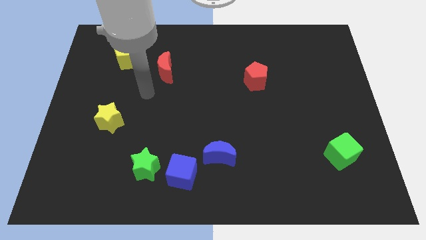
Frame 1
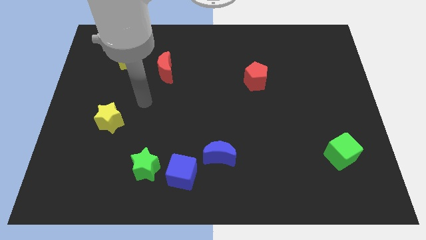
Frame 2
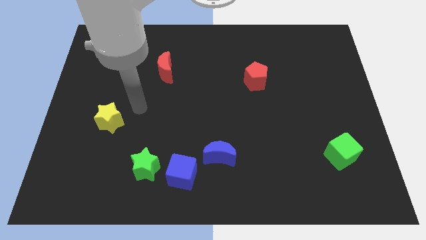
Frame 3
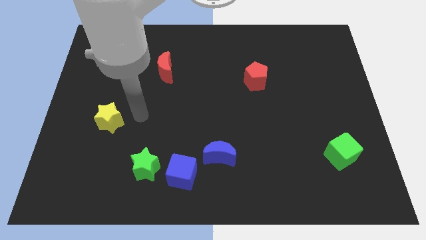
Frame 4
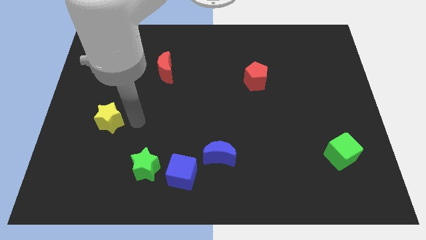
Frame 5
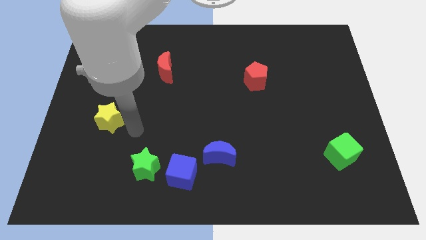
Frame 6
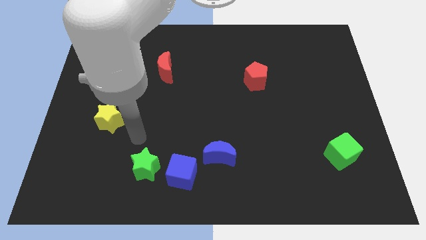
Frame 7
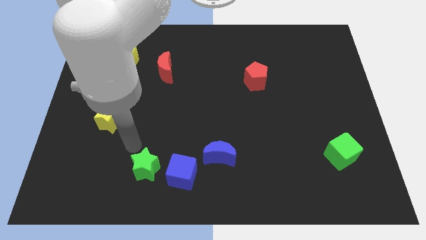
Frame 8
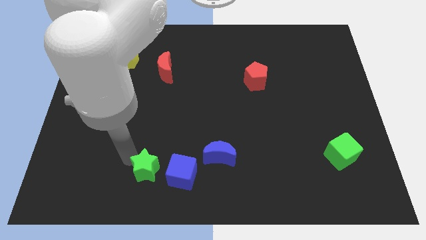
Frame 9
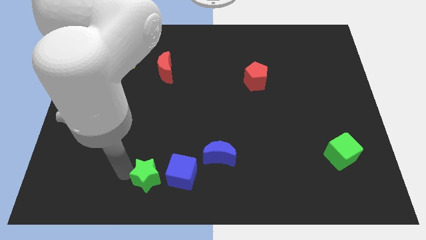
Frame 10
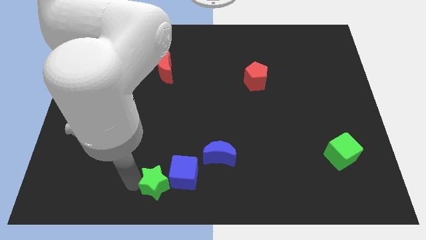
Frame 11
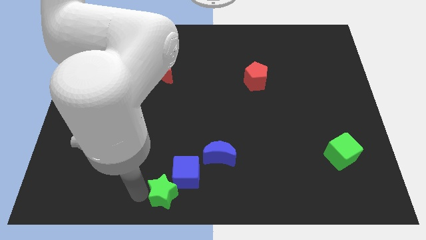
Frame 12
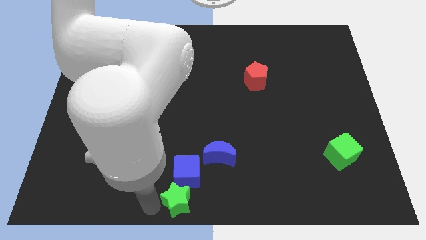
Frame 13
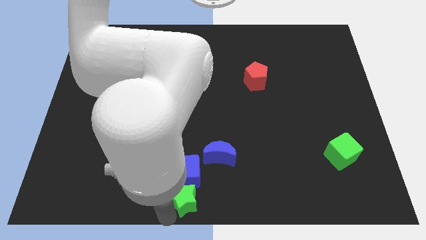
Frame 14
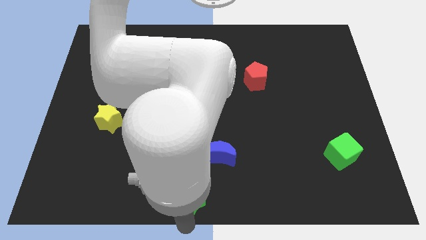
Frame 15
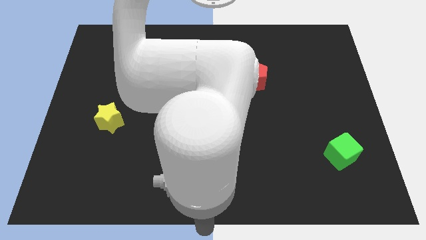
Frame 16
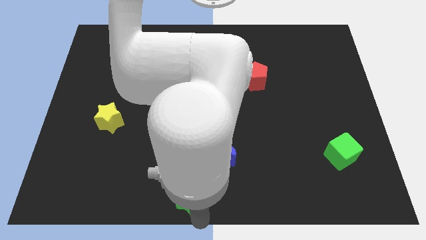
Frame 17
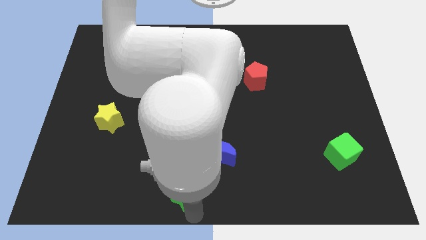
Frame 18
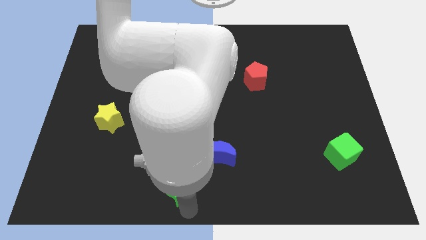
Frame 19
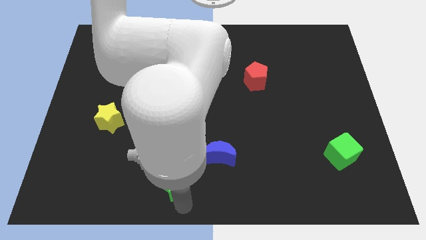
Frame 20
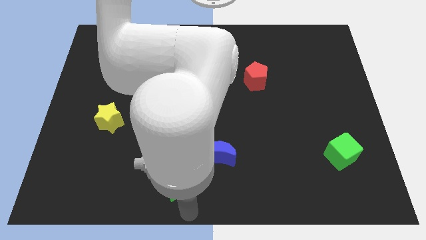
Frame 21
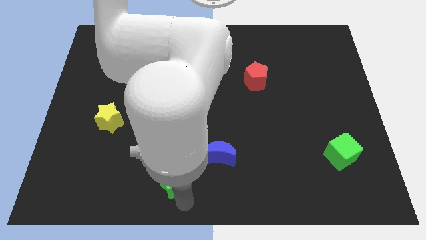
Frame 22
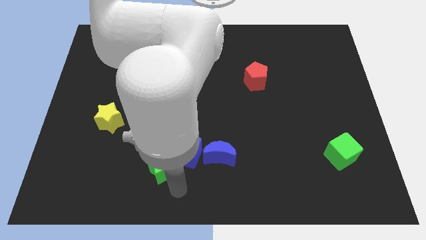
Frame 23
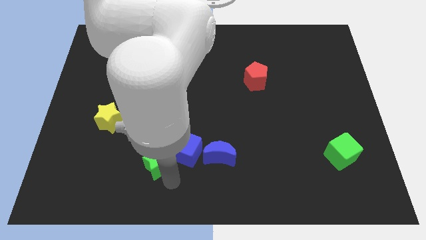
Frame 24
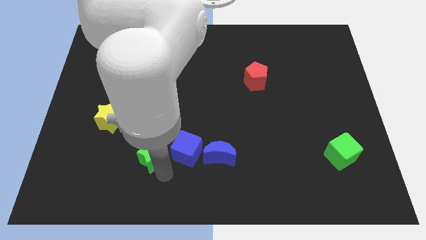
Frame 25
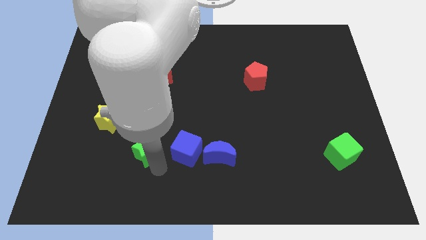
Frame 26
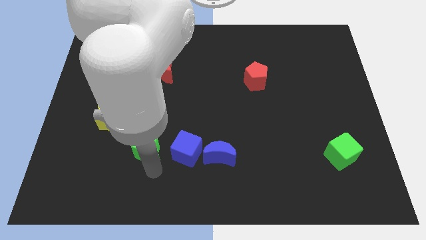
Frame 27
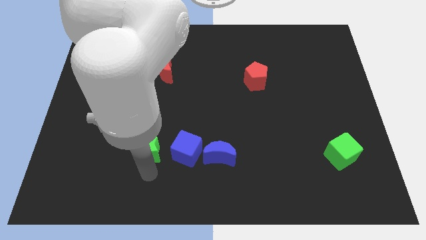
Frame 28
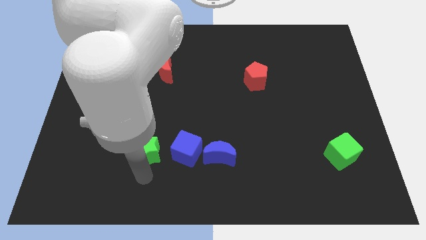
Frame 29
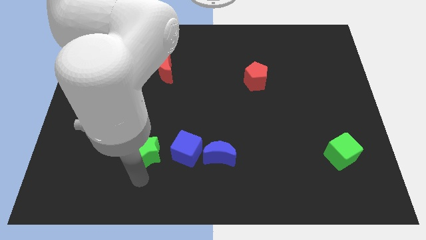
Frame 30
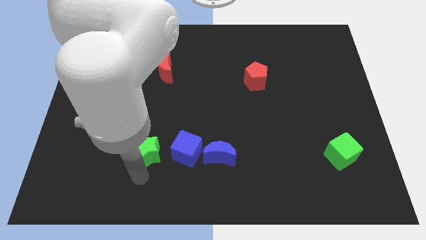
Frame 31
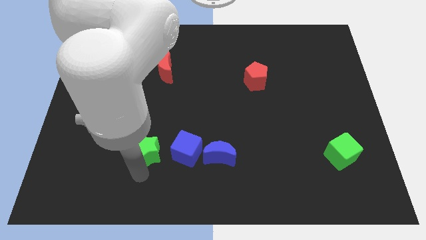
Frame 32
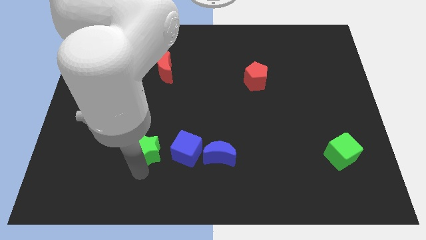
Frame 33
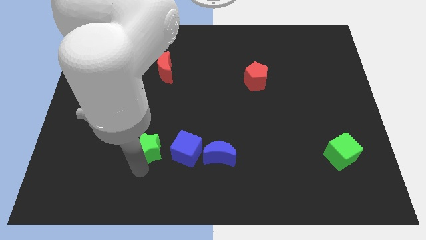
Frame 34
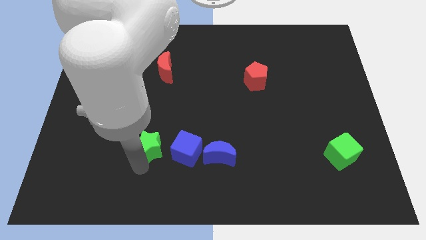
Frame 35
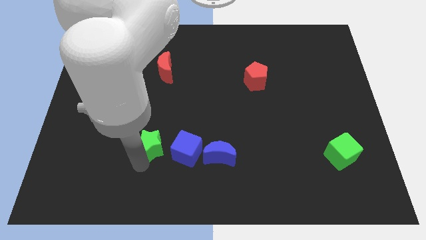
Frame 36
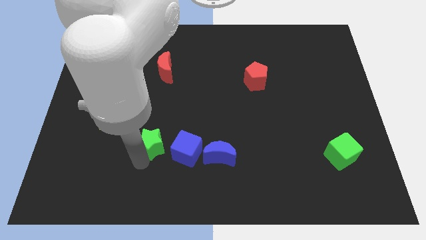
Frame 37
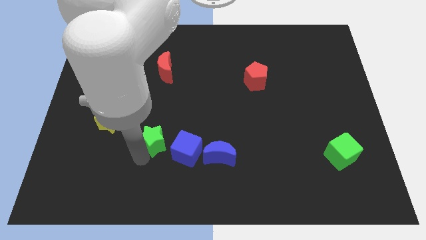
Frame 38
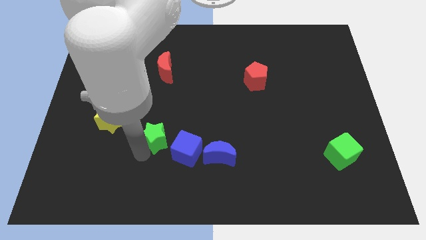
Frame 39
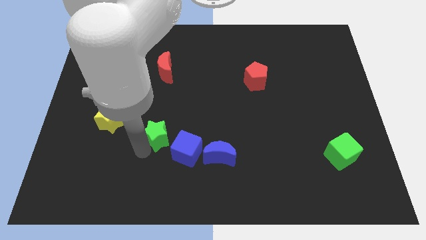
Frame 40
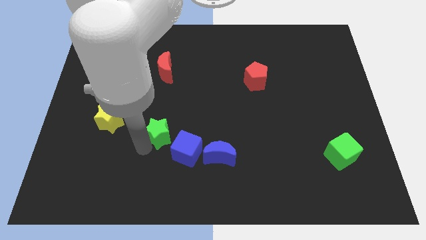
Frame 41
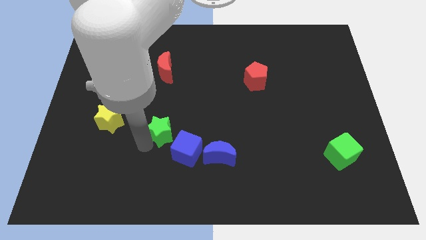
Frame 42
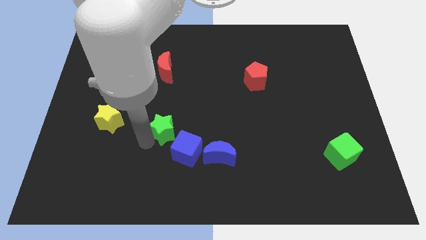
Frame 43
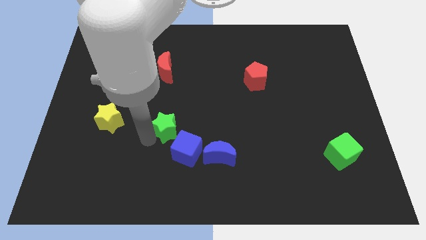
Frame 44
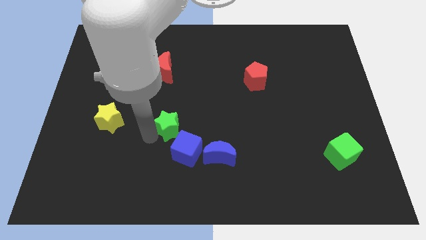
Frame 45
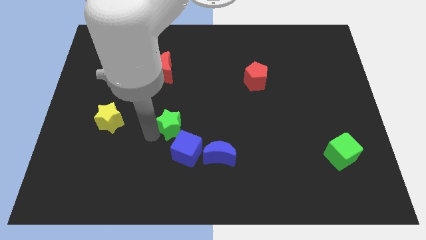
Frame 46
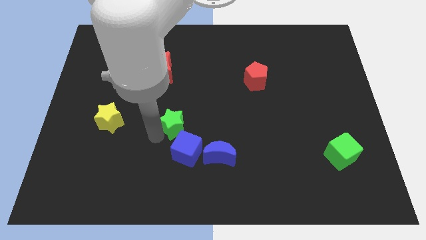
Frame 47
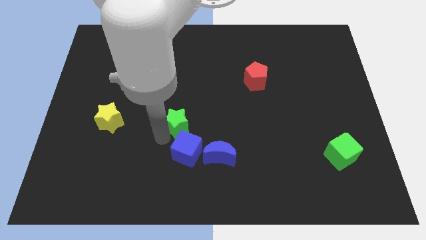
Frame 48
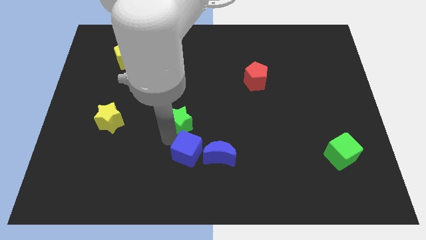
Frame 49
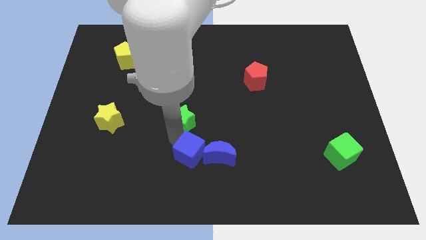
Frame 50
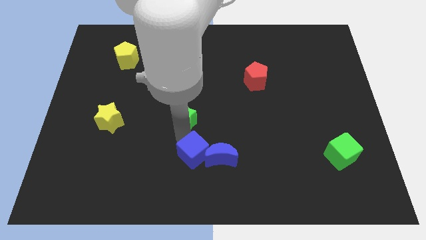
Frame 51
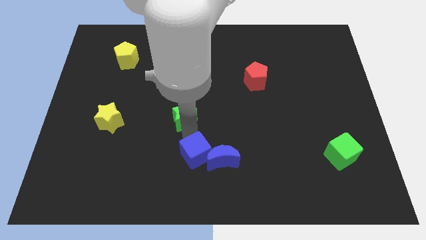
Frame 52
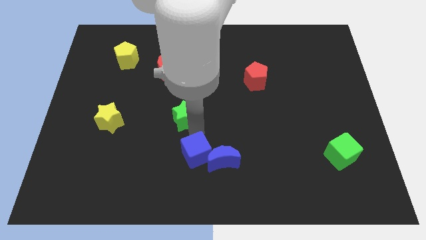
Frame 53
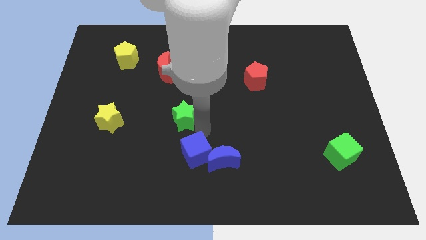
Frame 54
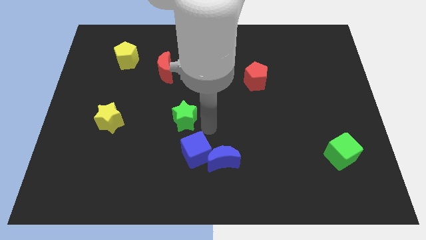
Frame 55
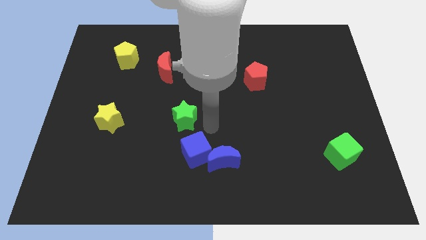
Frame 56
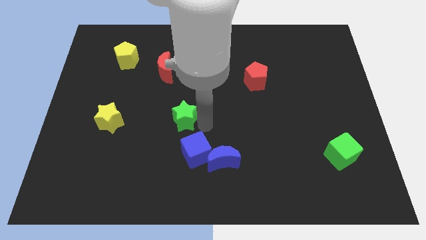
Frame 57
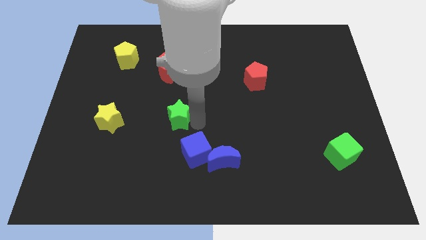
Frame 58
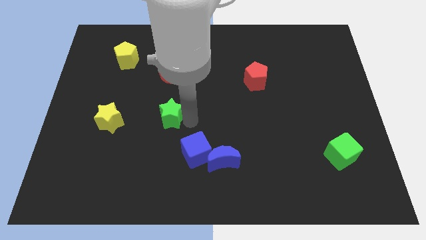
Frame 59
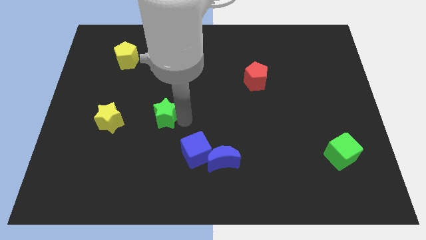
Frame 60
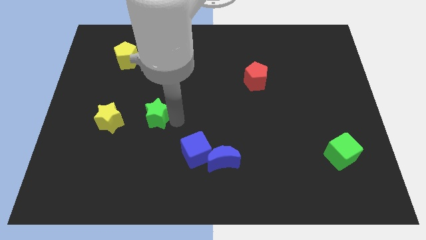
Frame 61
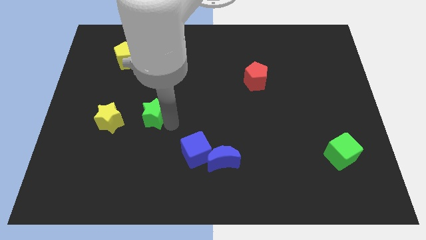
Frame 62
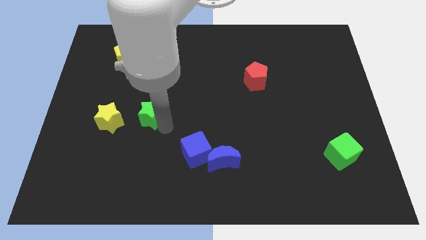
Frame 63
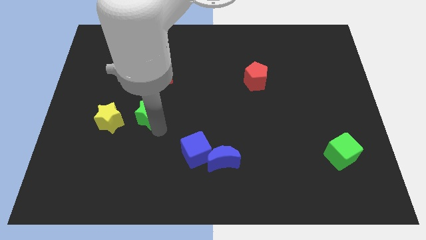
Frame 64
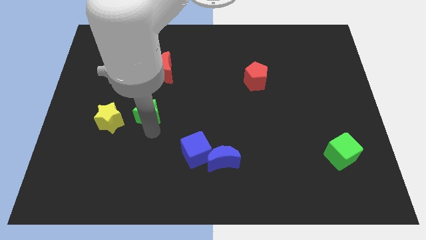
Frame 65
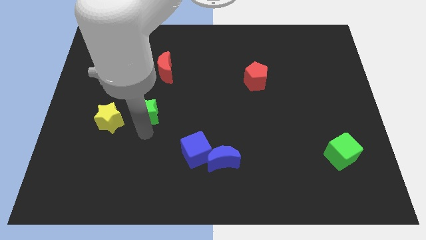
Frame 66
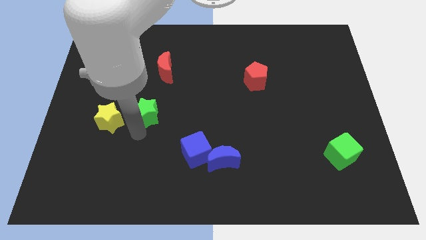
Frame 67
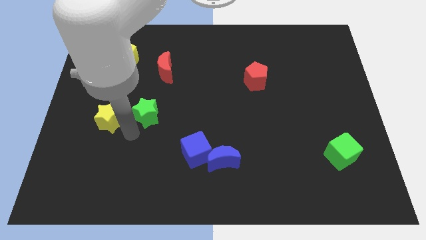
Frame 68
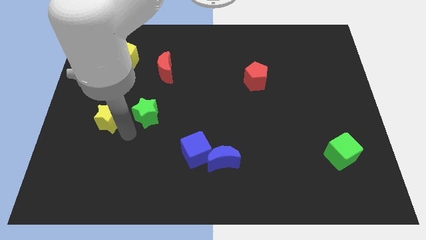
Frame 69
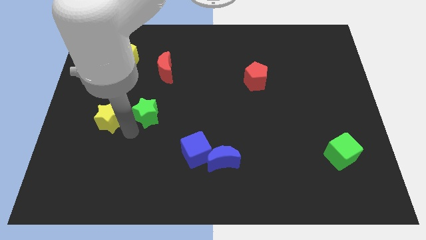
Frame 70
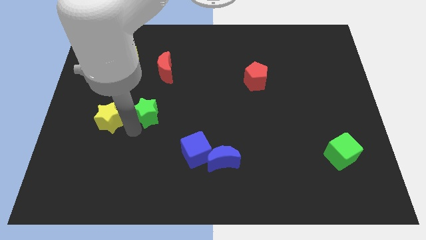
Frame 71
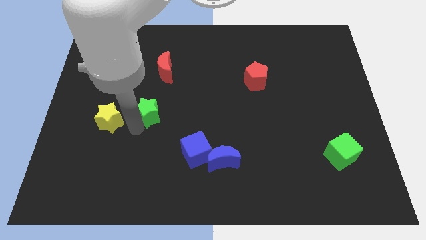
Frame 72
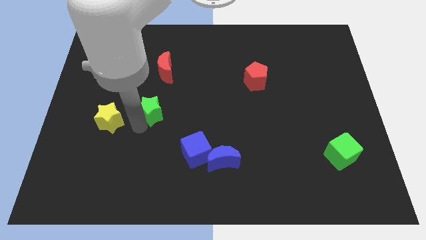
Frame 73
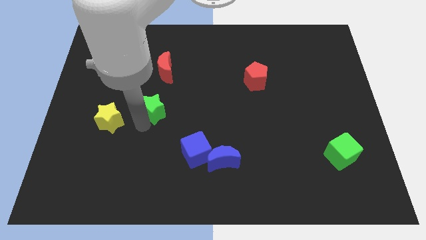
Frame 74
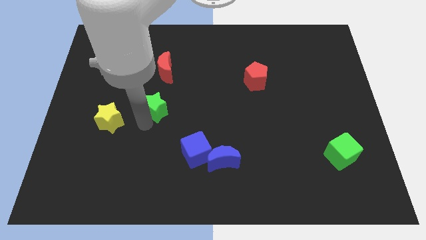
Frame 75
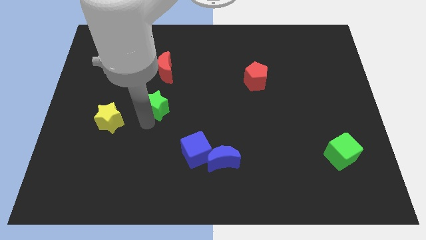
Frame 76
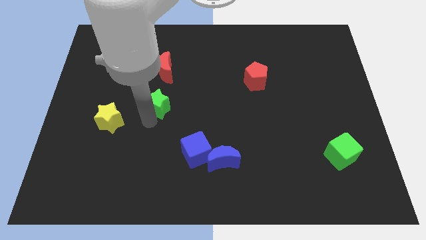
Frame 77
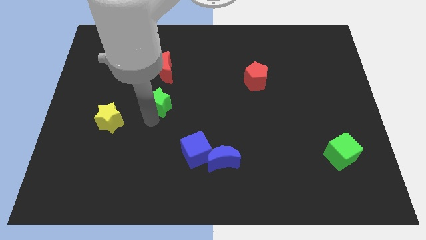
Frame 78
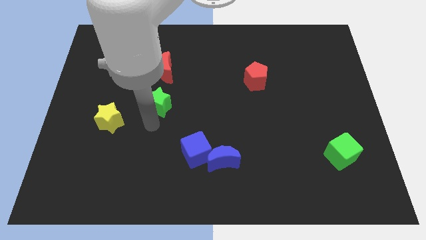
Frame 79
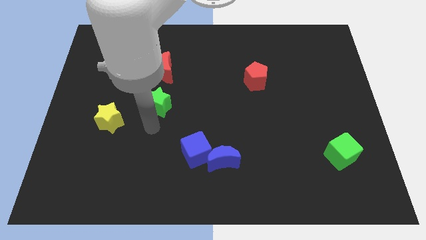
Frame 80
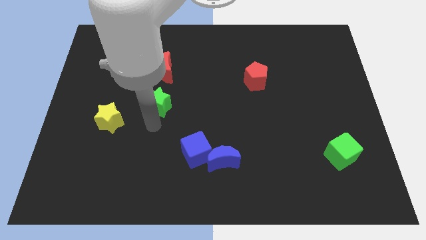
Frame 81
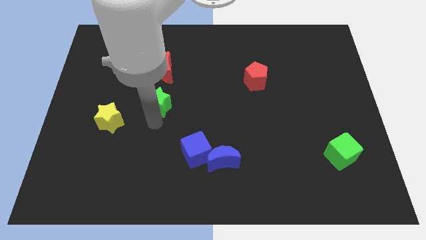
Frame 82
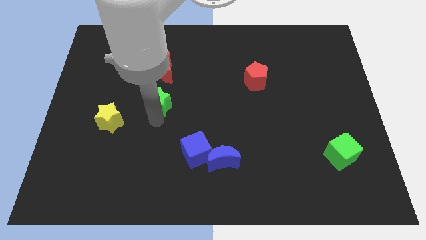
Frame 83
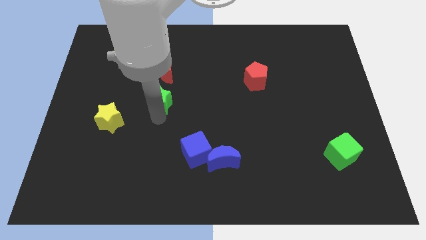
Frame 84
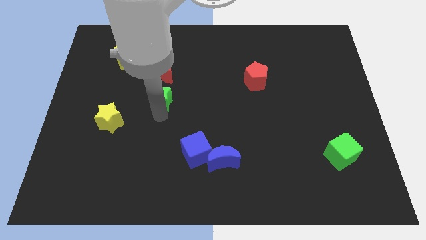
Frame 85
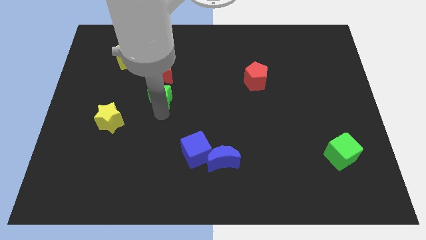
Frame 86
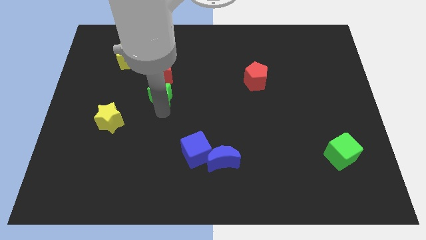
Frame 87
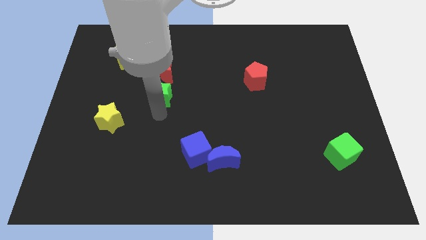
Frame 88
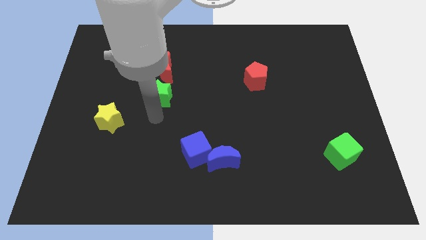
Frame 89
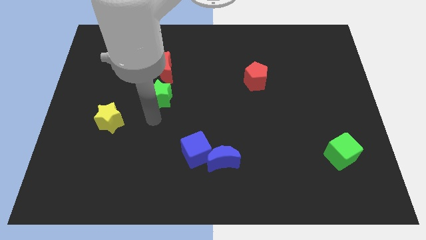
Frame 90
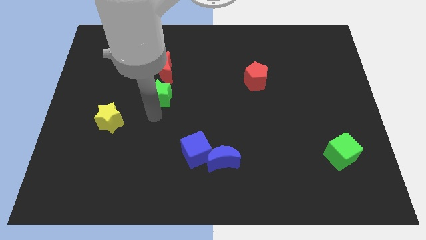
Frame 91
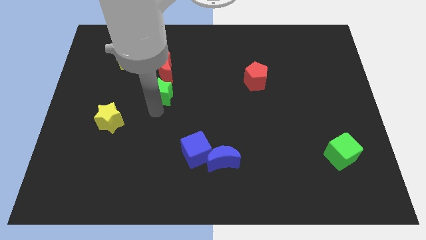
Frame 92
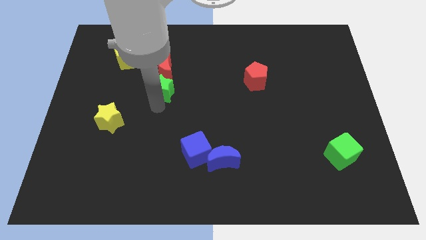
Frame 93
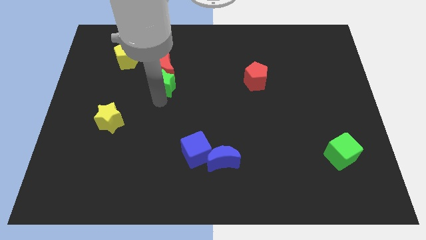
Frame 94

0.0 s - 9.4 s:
slide the green star to the red moon
